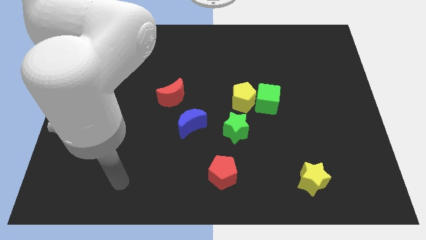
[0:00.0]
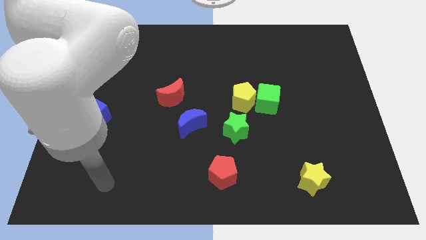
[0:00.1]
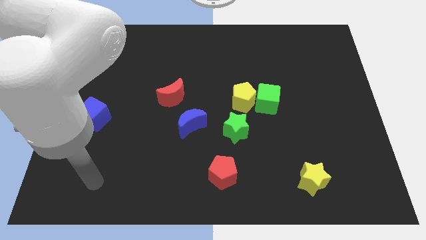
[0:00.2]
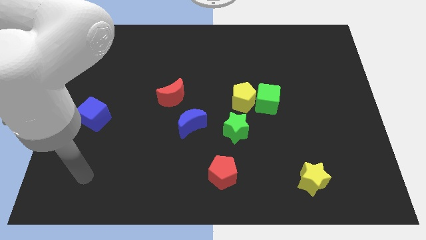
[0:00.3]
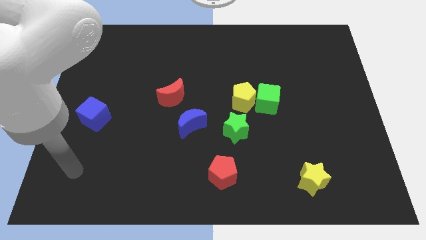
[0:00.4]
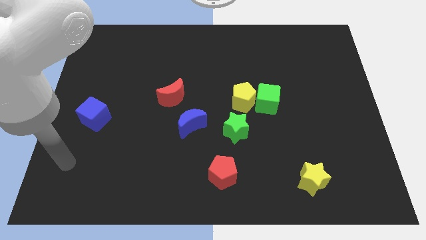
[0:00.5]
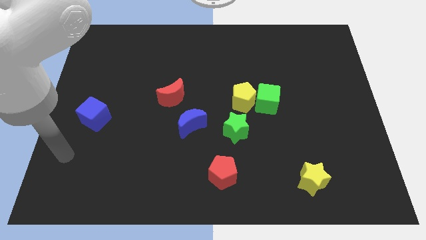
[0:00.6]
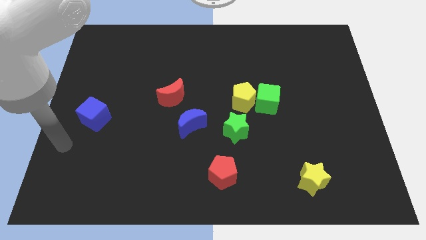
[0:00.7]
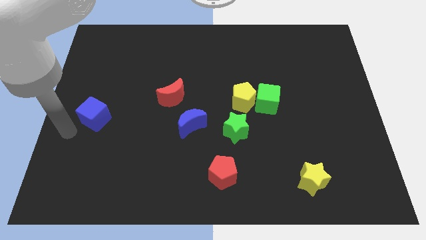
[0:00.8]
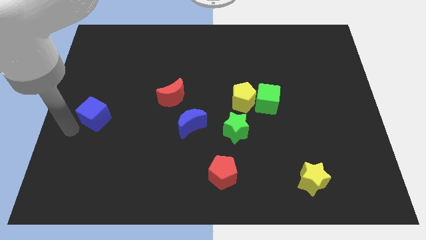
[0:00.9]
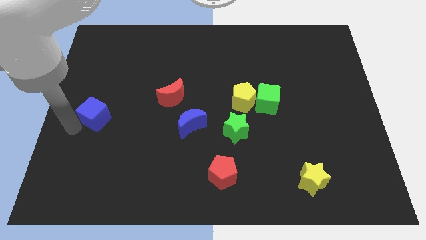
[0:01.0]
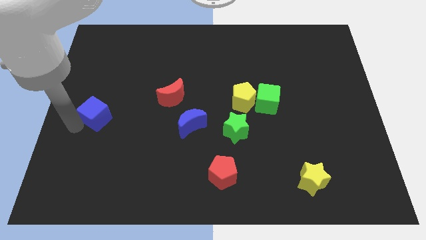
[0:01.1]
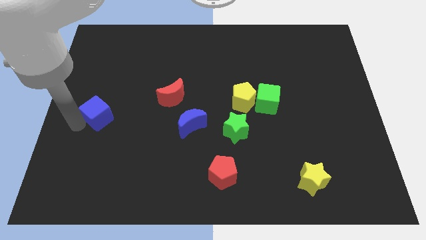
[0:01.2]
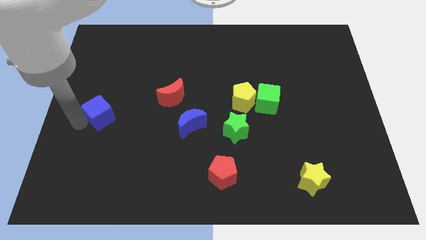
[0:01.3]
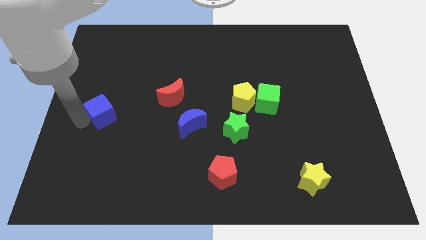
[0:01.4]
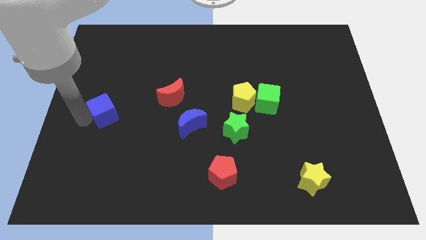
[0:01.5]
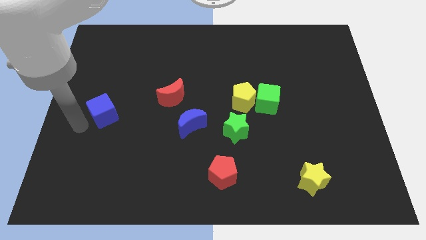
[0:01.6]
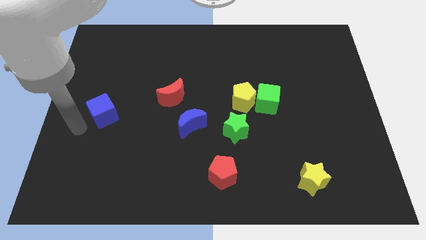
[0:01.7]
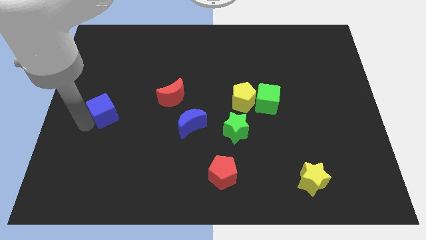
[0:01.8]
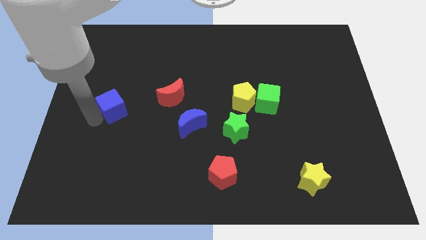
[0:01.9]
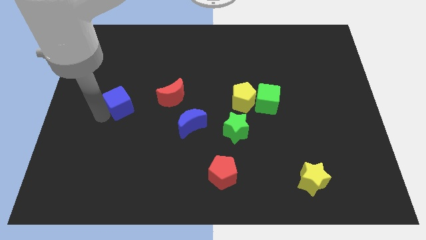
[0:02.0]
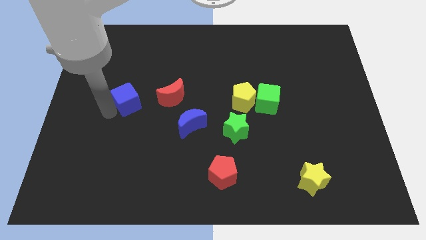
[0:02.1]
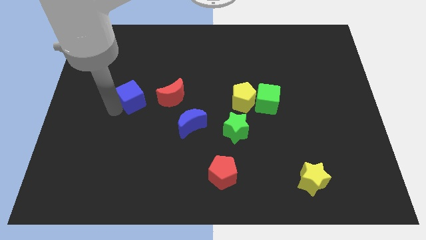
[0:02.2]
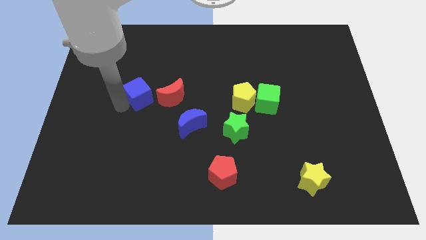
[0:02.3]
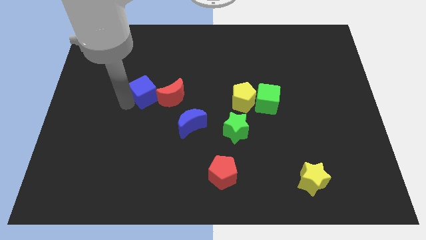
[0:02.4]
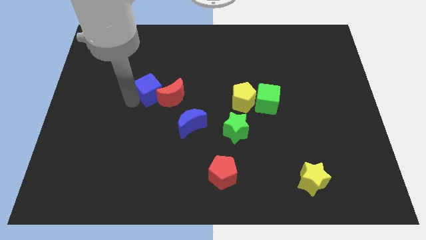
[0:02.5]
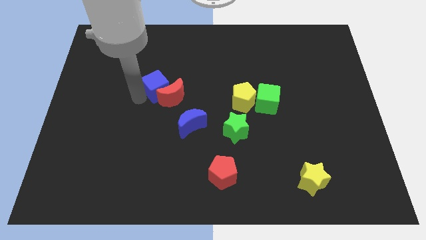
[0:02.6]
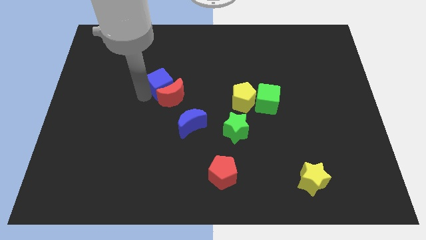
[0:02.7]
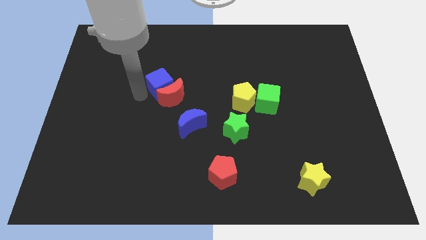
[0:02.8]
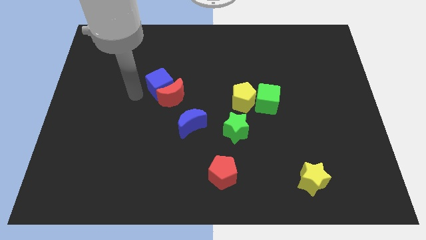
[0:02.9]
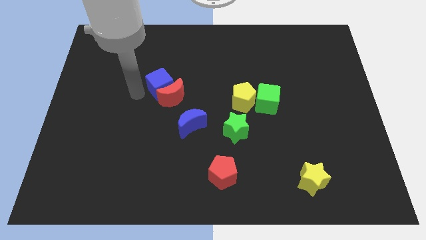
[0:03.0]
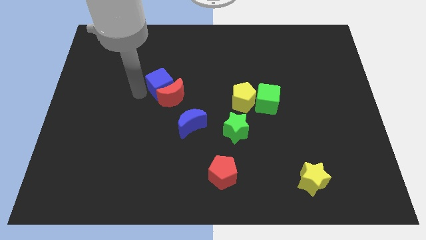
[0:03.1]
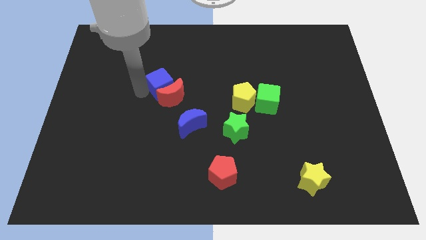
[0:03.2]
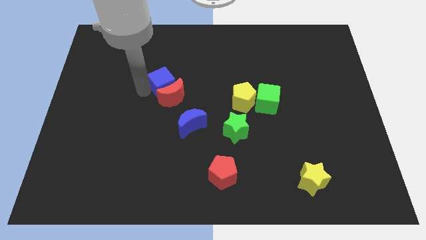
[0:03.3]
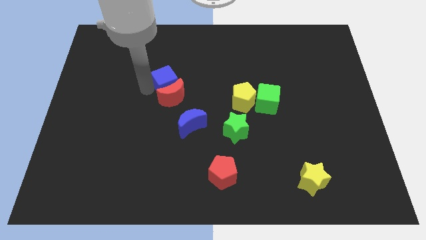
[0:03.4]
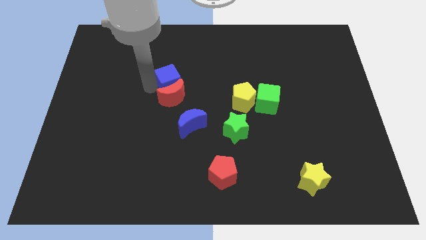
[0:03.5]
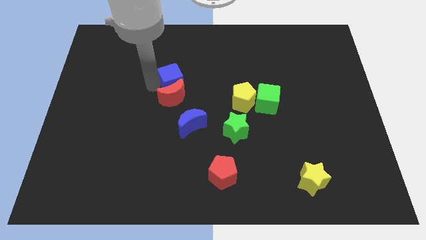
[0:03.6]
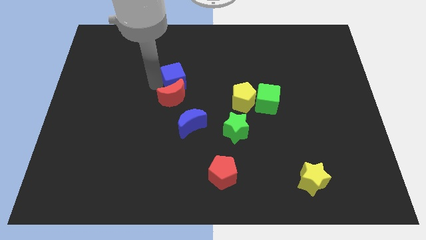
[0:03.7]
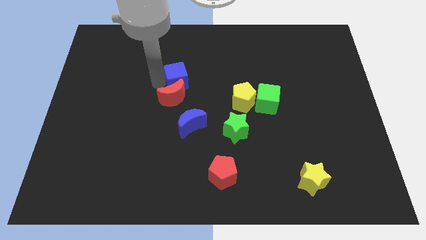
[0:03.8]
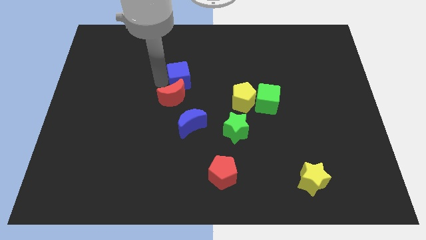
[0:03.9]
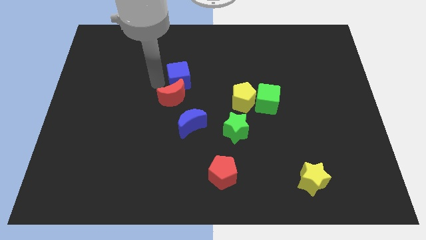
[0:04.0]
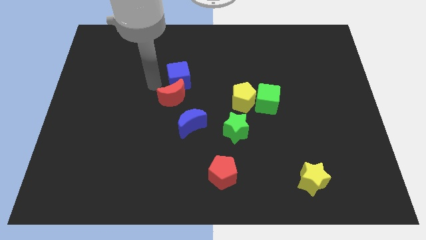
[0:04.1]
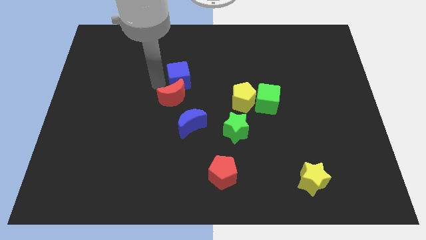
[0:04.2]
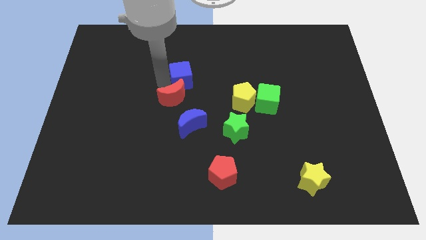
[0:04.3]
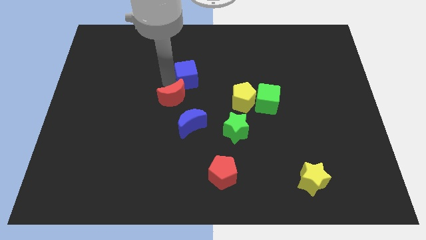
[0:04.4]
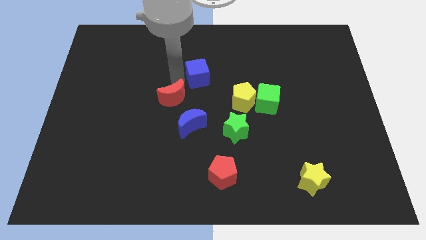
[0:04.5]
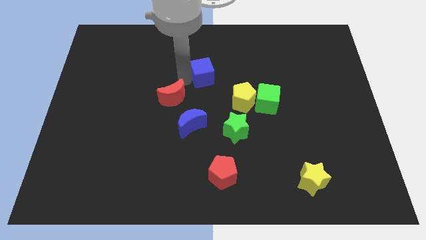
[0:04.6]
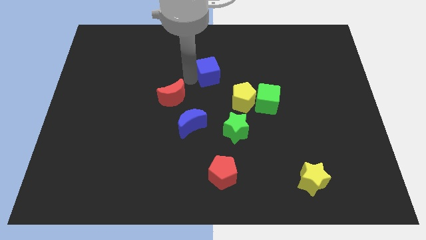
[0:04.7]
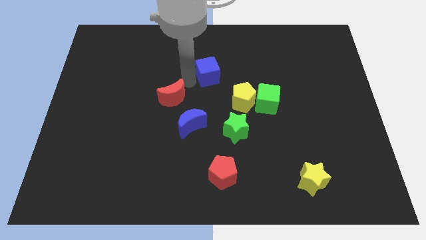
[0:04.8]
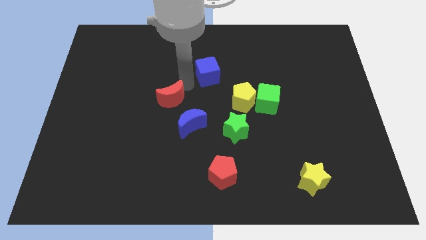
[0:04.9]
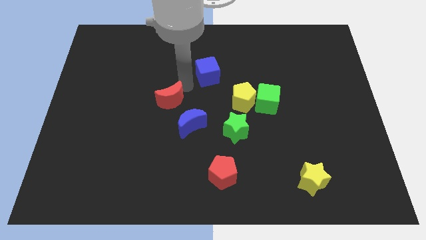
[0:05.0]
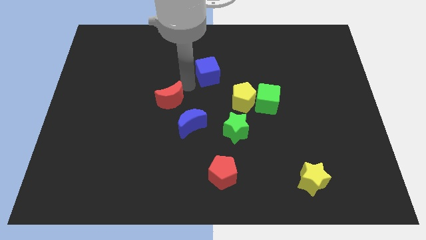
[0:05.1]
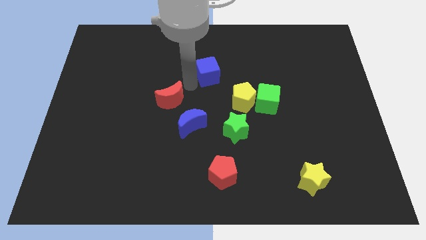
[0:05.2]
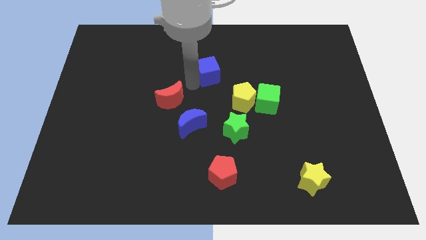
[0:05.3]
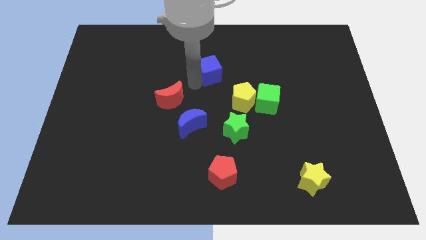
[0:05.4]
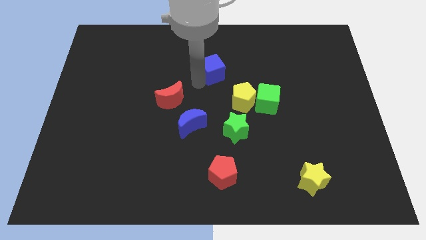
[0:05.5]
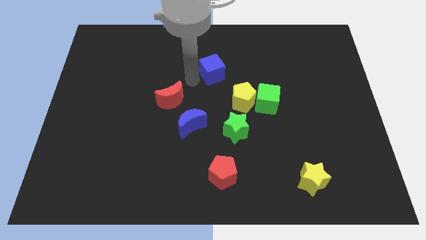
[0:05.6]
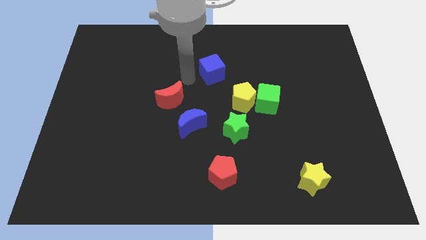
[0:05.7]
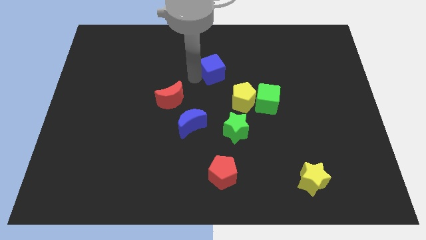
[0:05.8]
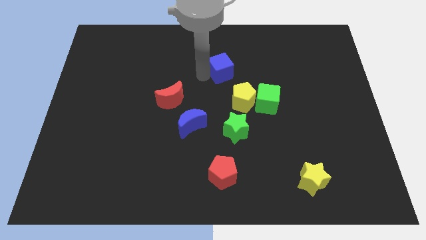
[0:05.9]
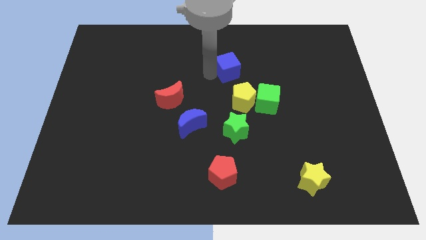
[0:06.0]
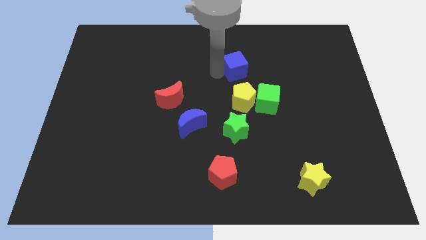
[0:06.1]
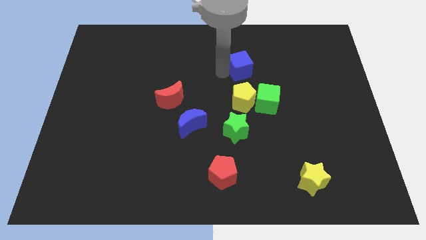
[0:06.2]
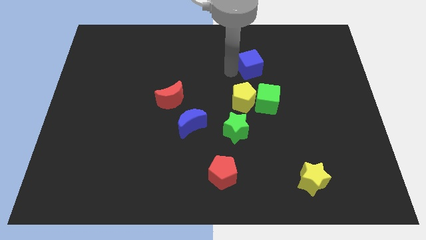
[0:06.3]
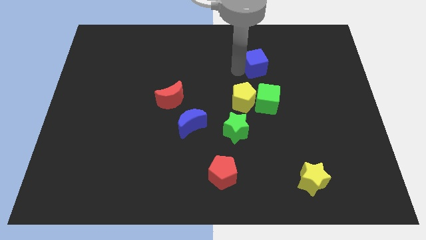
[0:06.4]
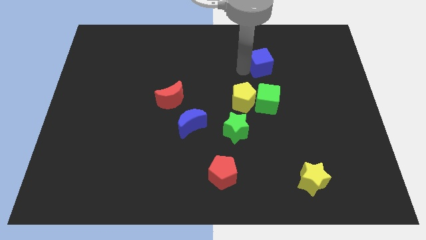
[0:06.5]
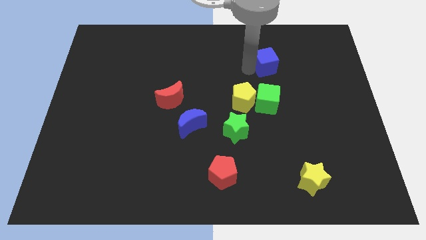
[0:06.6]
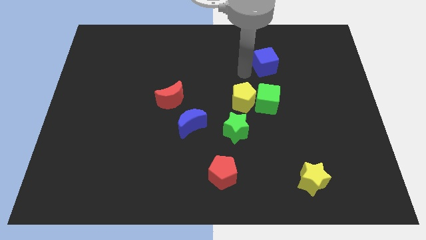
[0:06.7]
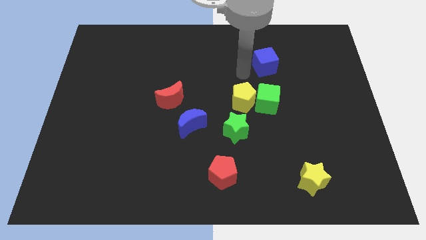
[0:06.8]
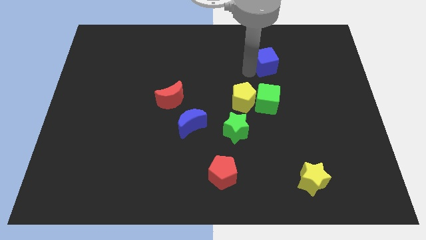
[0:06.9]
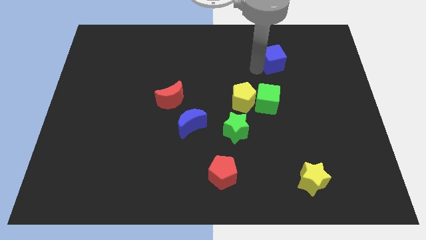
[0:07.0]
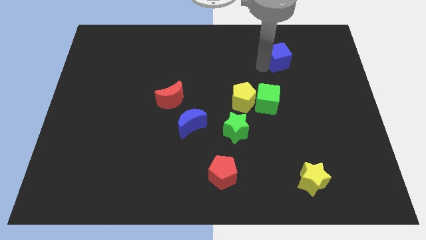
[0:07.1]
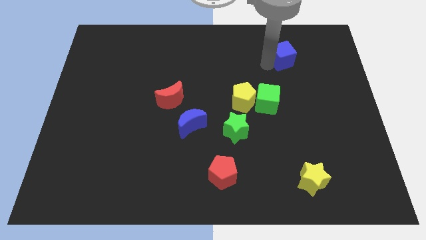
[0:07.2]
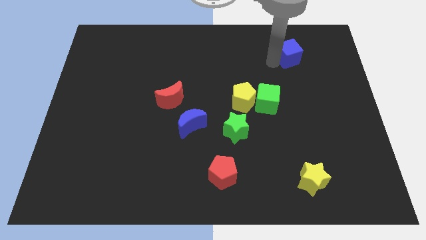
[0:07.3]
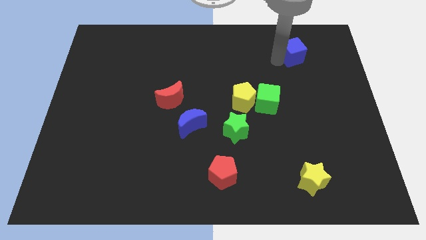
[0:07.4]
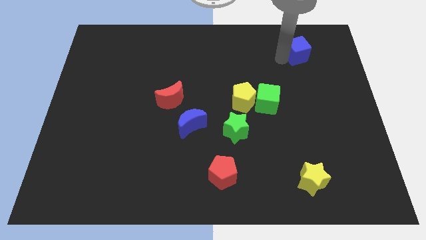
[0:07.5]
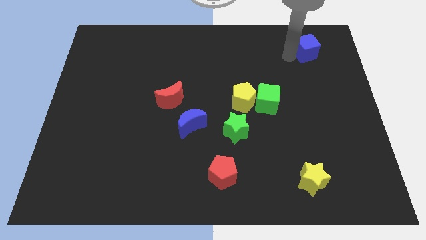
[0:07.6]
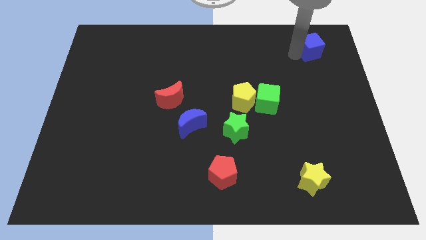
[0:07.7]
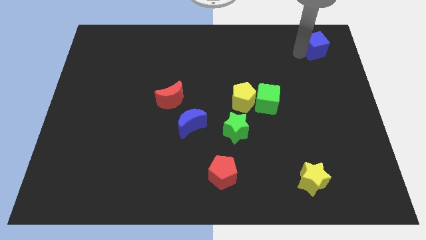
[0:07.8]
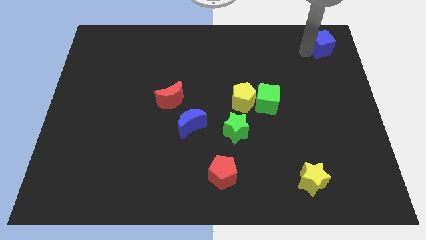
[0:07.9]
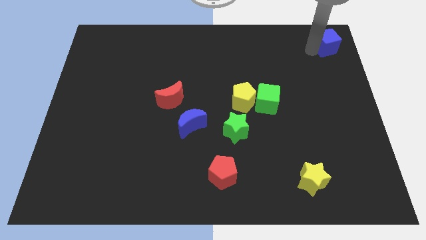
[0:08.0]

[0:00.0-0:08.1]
put the blue cube to the top right of the board
